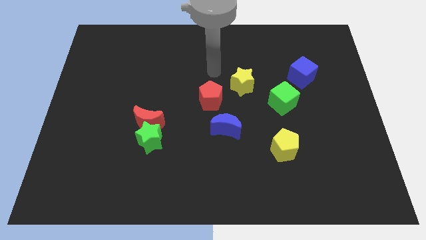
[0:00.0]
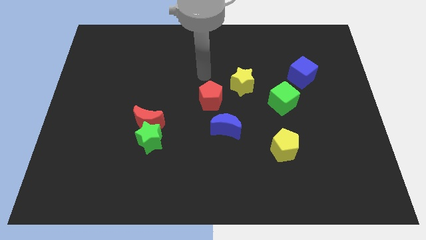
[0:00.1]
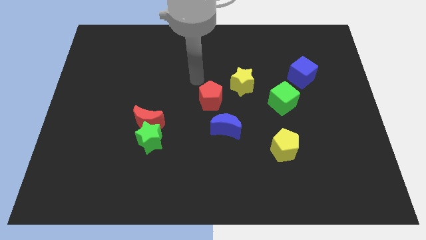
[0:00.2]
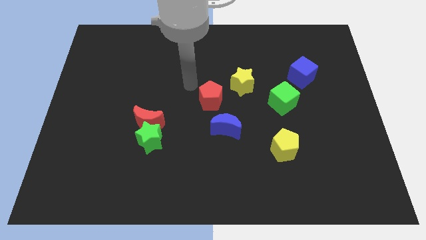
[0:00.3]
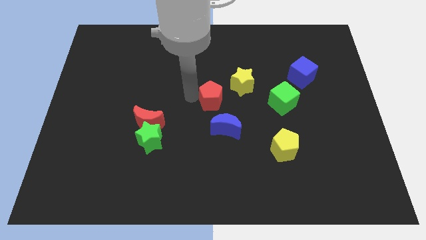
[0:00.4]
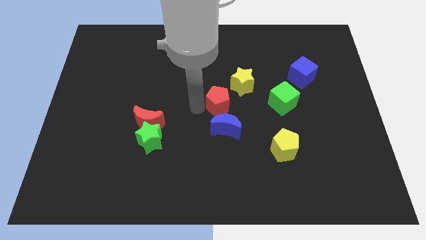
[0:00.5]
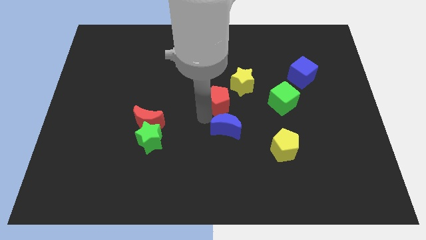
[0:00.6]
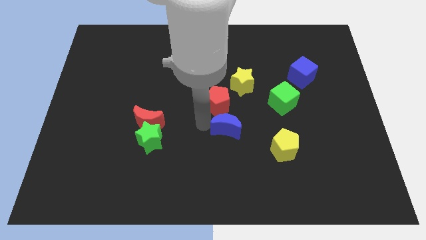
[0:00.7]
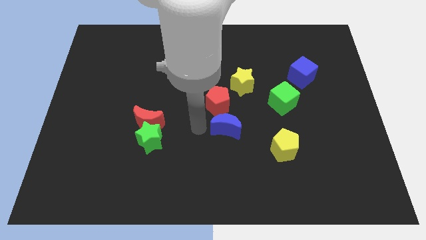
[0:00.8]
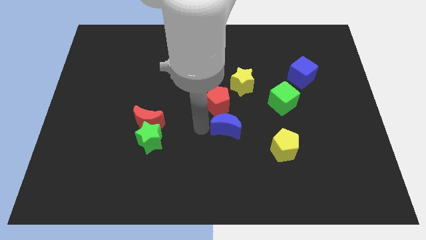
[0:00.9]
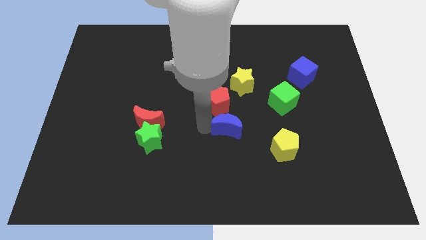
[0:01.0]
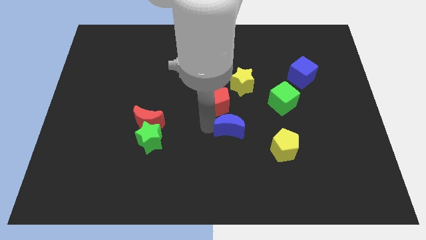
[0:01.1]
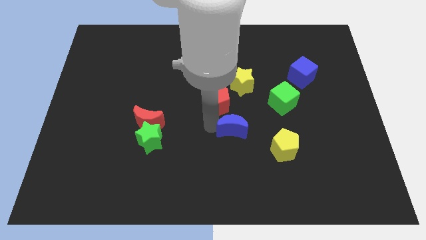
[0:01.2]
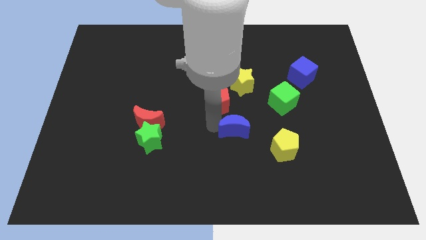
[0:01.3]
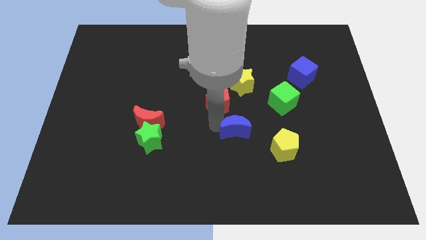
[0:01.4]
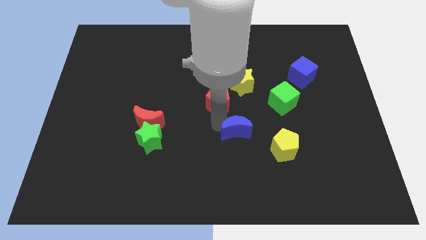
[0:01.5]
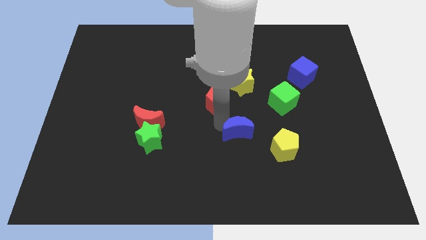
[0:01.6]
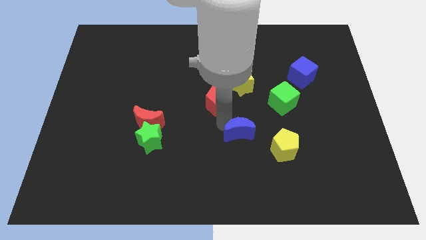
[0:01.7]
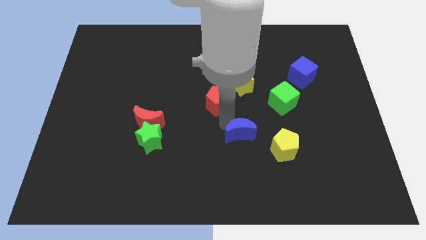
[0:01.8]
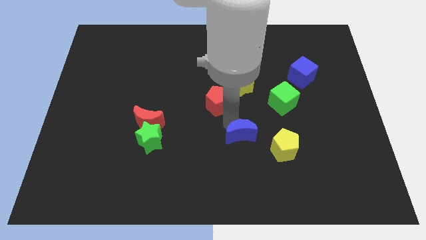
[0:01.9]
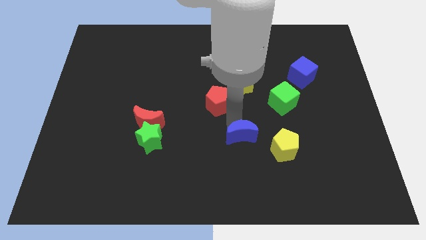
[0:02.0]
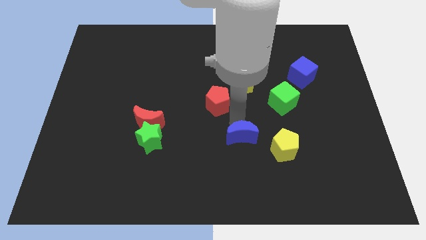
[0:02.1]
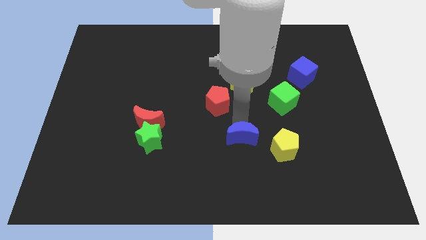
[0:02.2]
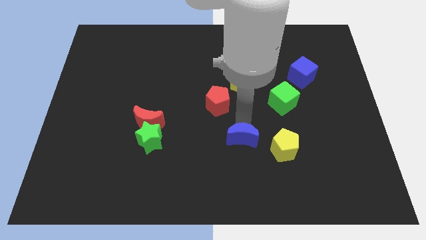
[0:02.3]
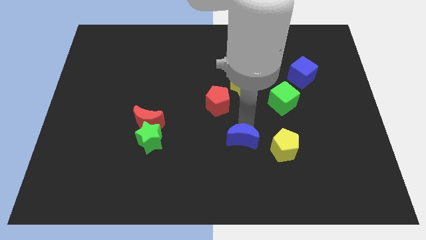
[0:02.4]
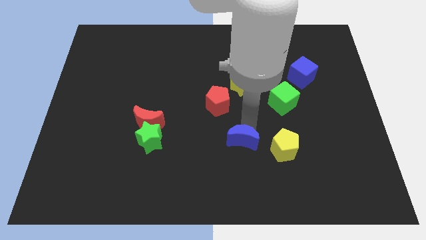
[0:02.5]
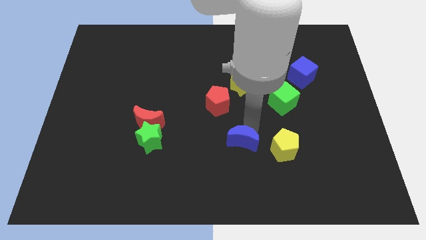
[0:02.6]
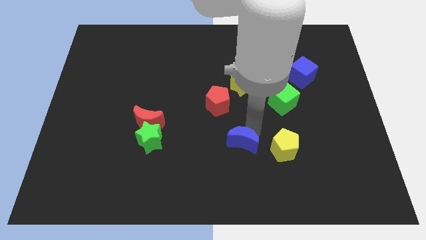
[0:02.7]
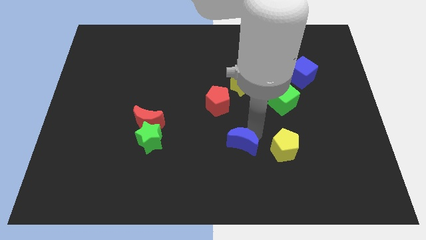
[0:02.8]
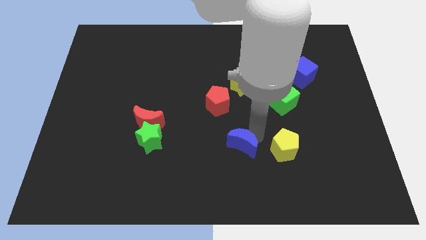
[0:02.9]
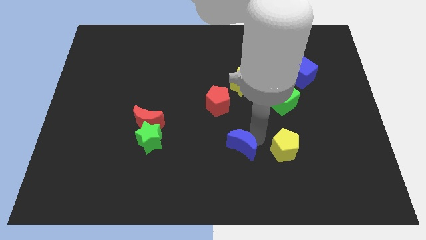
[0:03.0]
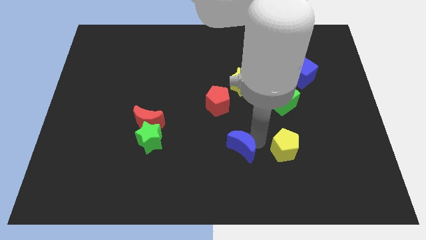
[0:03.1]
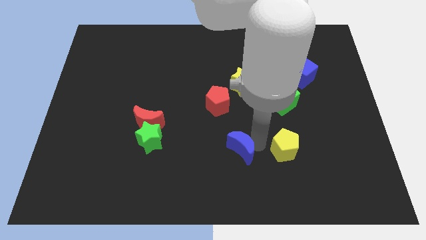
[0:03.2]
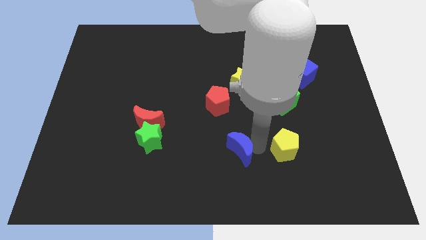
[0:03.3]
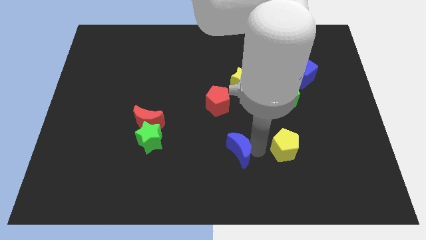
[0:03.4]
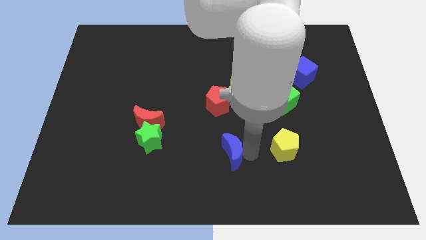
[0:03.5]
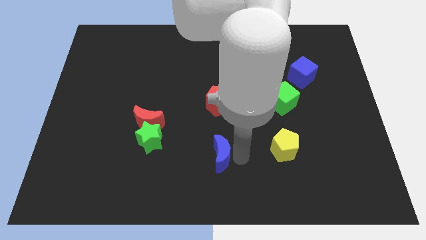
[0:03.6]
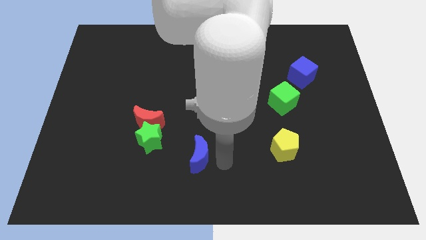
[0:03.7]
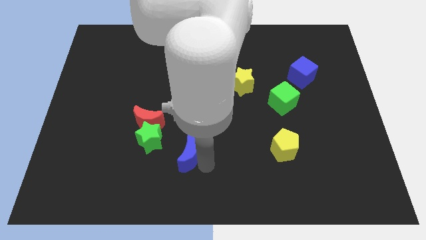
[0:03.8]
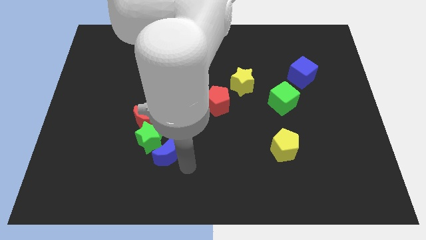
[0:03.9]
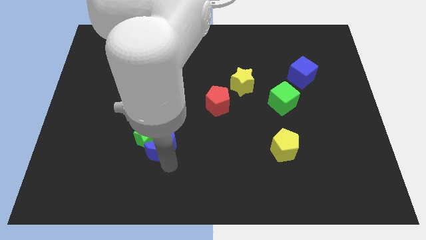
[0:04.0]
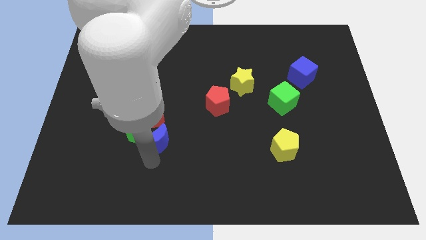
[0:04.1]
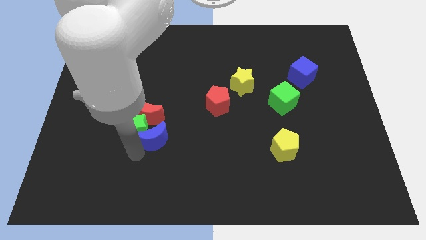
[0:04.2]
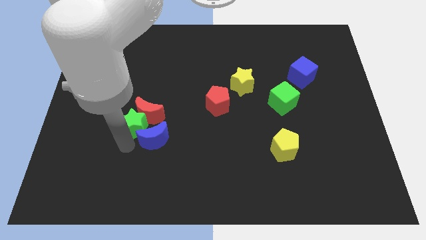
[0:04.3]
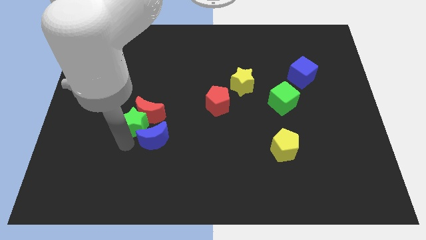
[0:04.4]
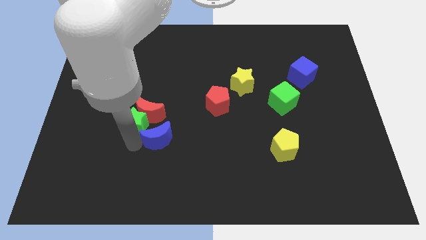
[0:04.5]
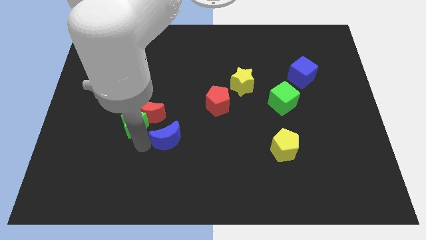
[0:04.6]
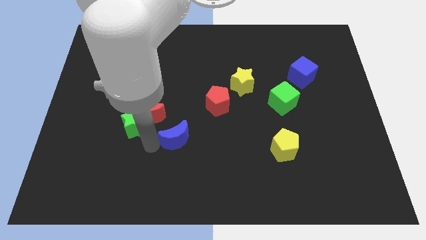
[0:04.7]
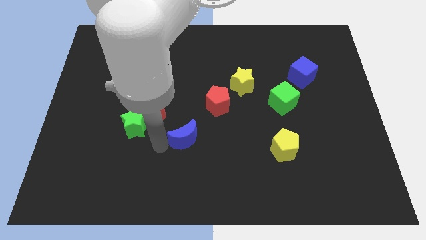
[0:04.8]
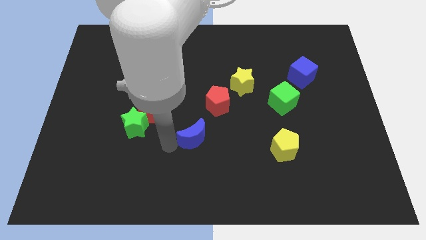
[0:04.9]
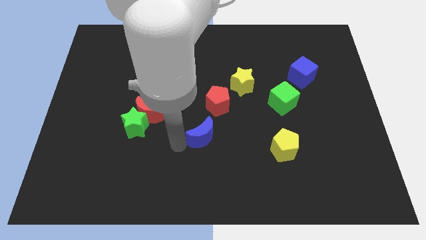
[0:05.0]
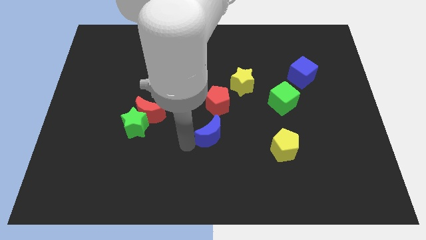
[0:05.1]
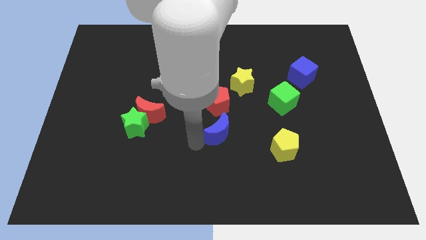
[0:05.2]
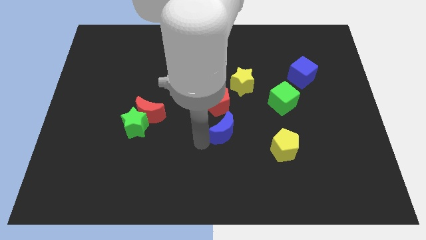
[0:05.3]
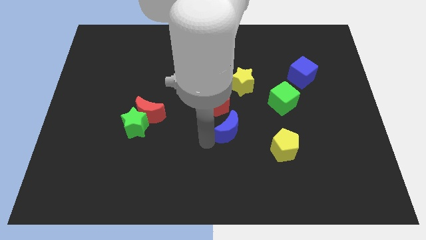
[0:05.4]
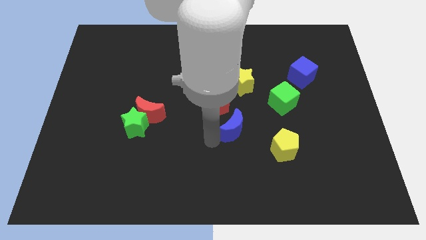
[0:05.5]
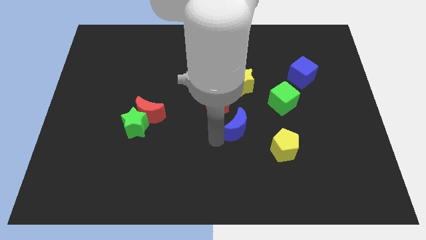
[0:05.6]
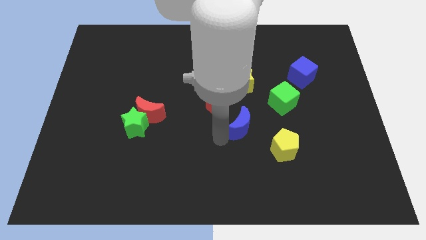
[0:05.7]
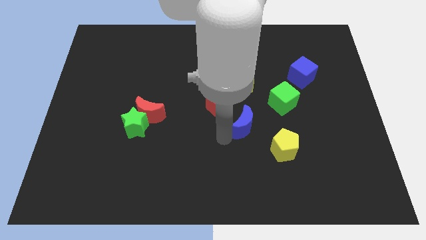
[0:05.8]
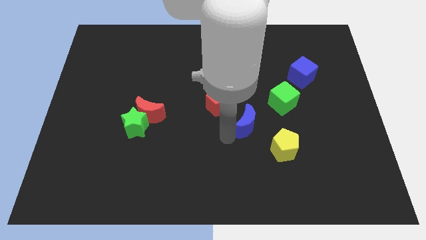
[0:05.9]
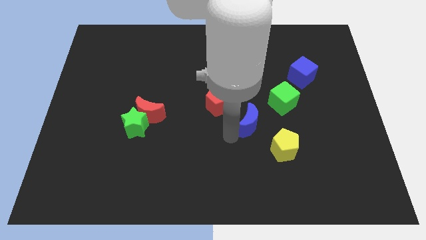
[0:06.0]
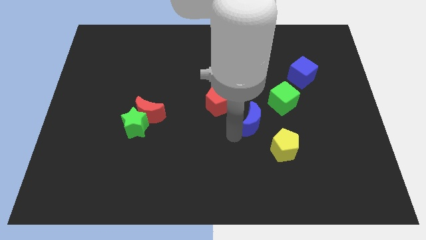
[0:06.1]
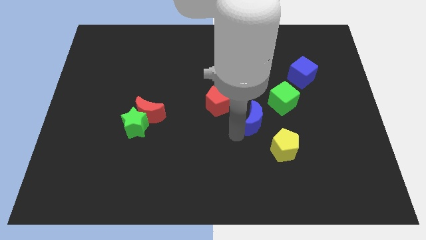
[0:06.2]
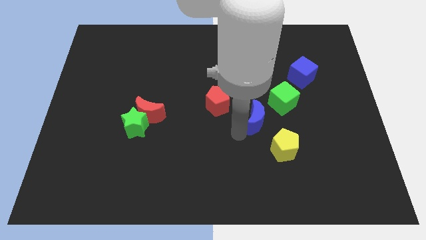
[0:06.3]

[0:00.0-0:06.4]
slightly push the blue moon to the right

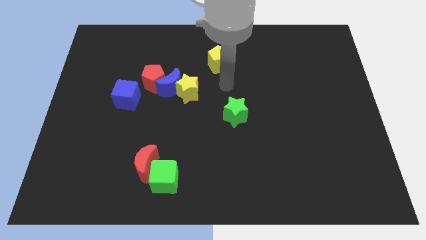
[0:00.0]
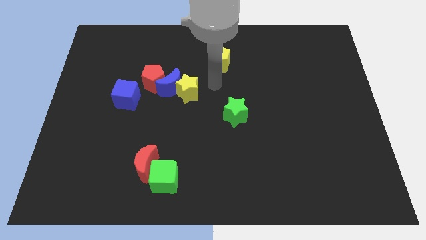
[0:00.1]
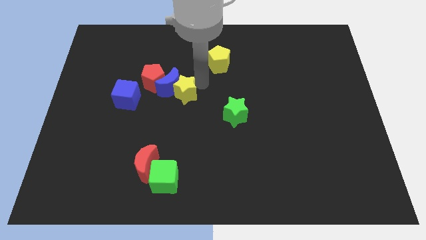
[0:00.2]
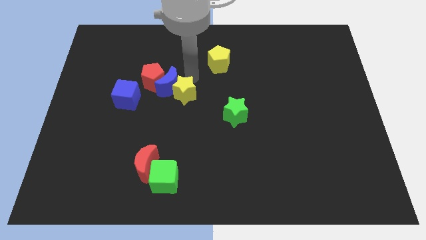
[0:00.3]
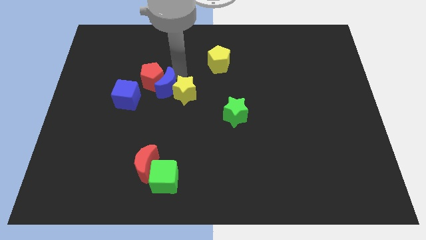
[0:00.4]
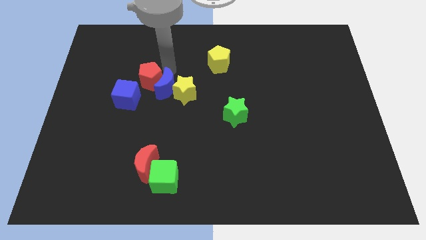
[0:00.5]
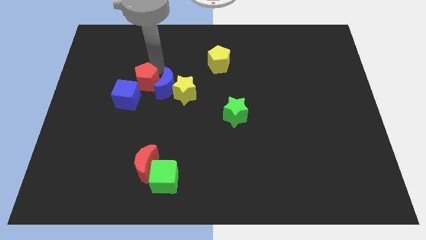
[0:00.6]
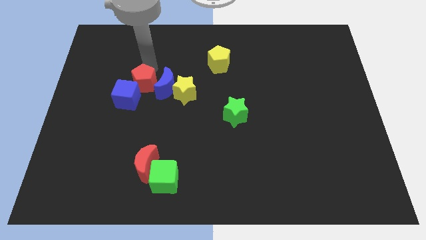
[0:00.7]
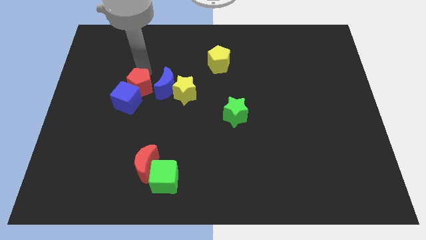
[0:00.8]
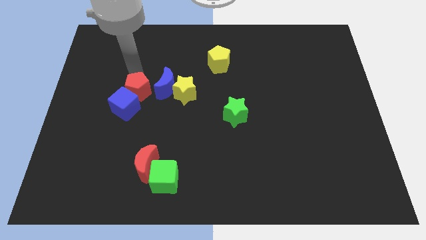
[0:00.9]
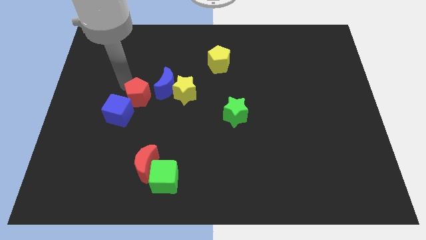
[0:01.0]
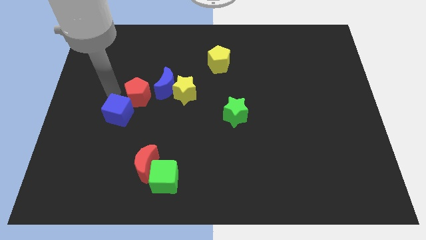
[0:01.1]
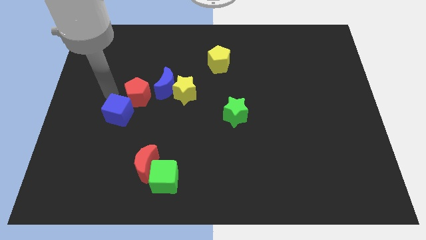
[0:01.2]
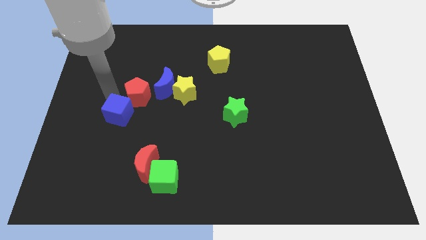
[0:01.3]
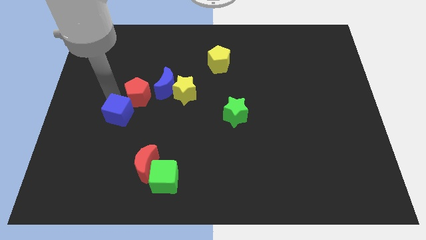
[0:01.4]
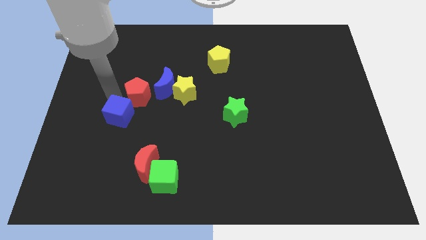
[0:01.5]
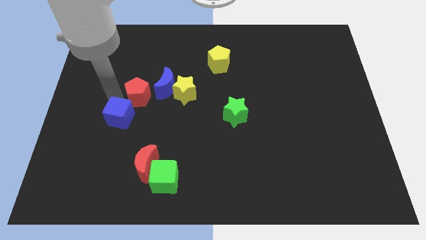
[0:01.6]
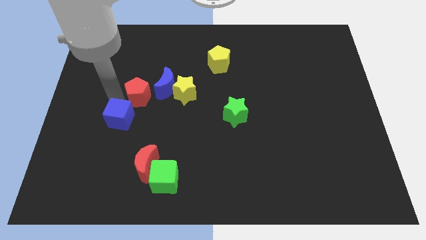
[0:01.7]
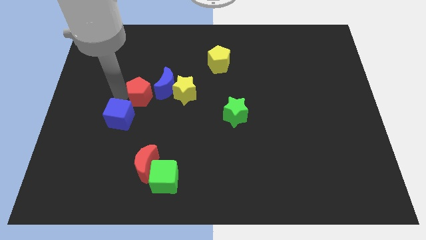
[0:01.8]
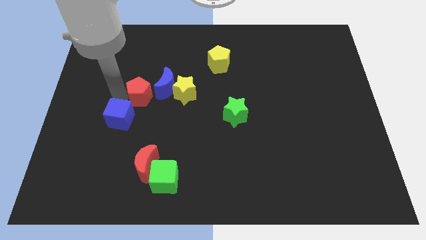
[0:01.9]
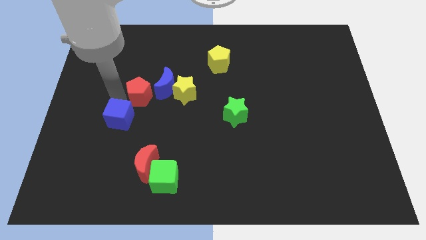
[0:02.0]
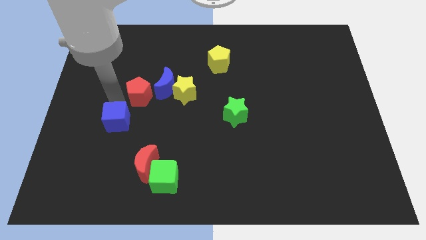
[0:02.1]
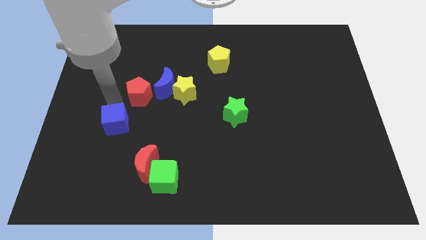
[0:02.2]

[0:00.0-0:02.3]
slide the blue cube down a little
